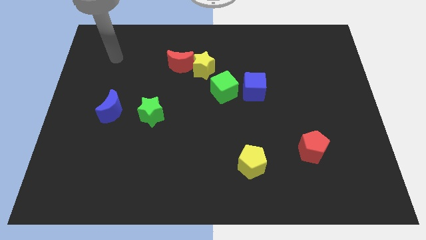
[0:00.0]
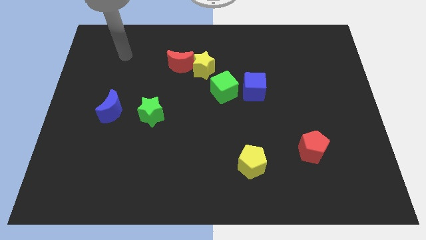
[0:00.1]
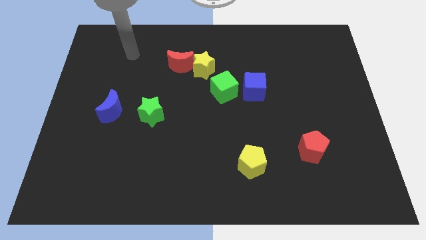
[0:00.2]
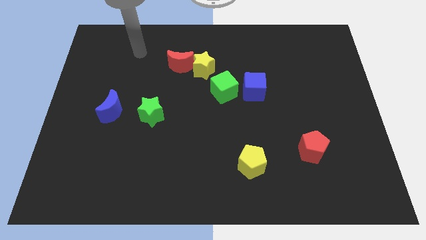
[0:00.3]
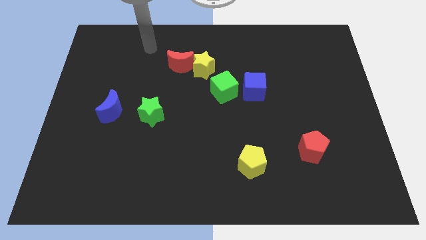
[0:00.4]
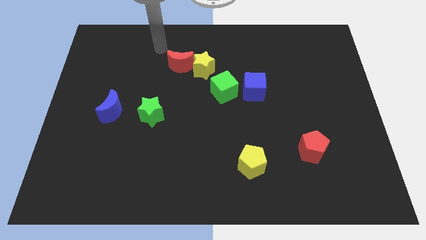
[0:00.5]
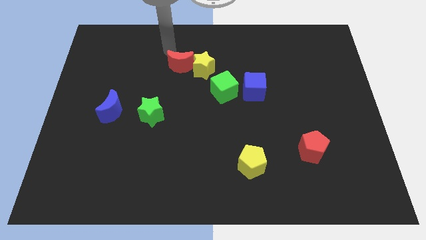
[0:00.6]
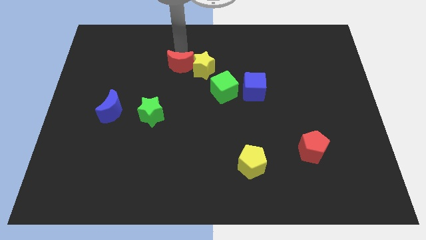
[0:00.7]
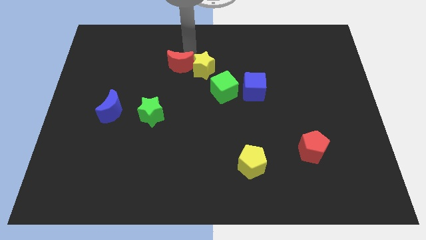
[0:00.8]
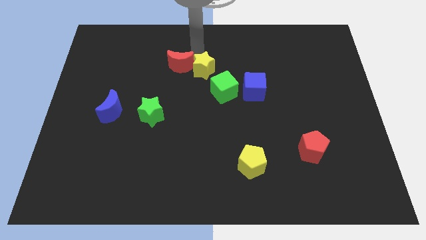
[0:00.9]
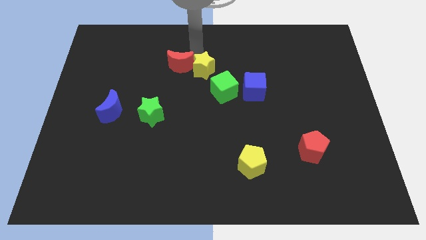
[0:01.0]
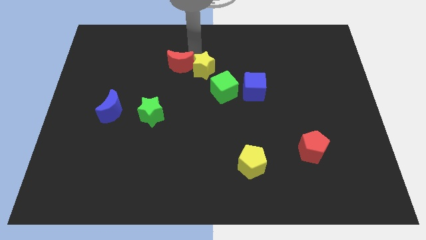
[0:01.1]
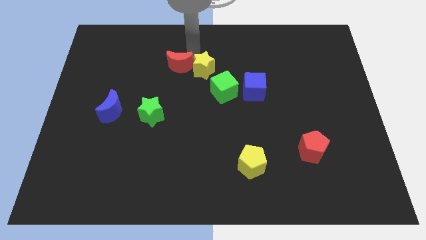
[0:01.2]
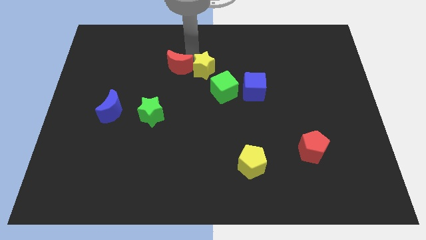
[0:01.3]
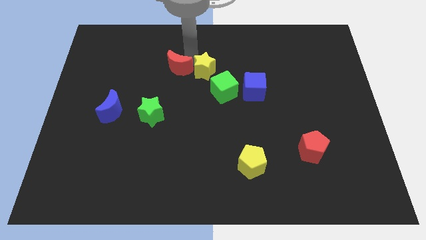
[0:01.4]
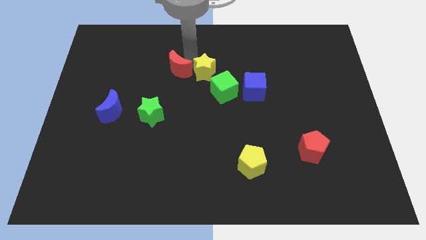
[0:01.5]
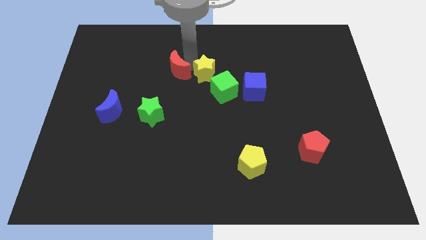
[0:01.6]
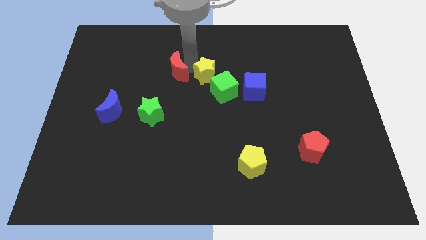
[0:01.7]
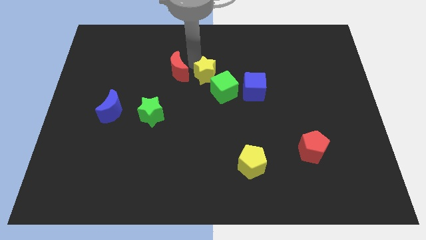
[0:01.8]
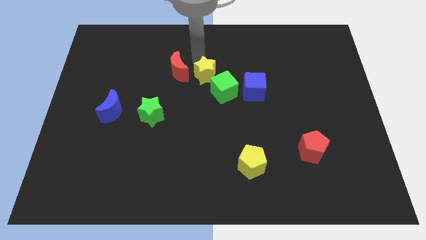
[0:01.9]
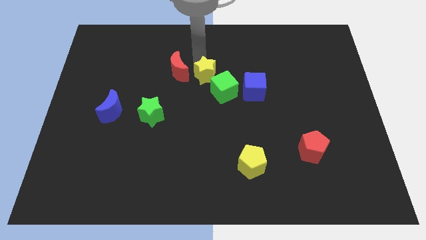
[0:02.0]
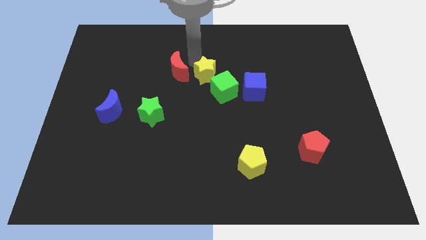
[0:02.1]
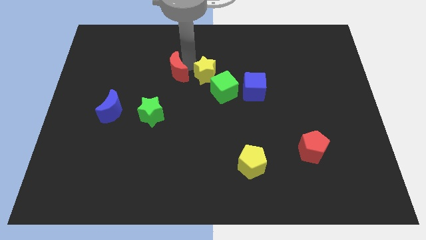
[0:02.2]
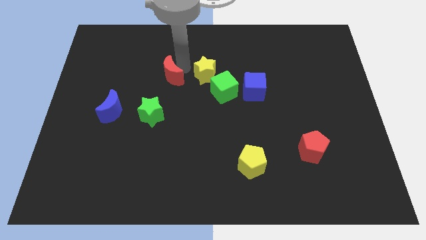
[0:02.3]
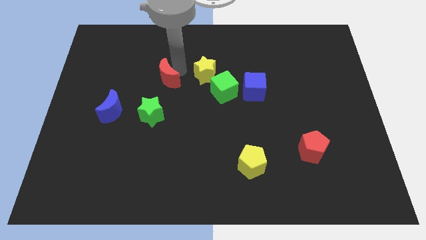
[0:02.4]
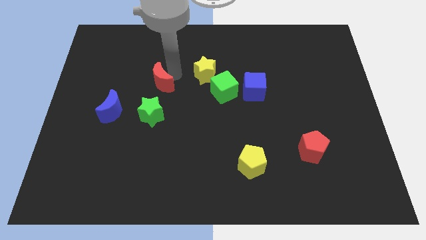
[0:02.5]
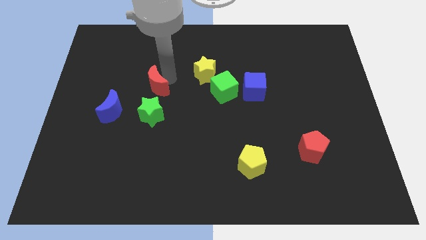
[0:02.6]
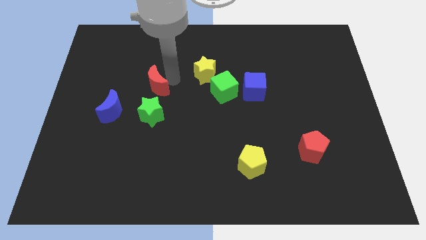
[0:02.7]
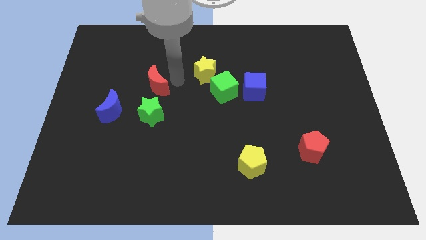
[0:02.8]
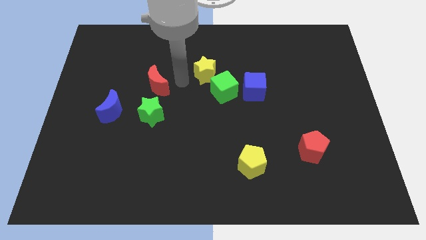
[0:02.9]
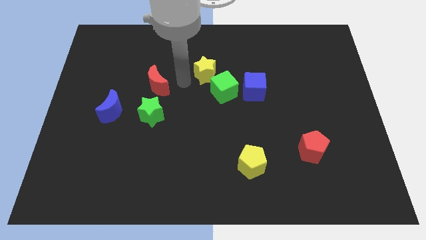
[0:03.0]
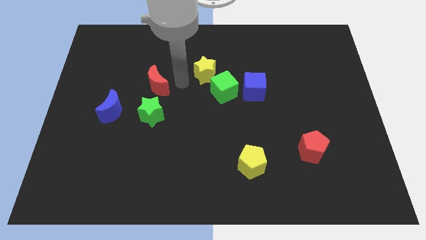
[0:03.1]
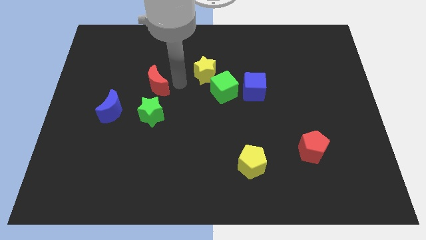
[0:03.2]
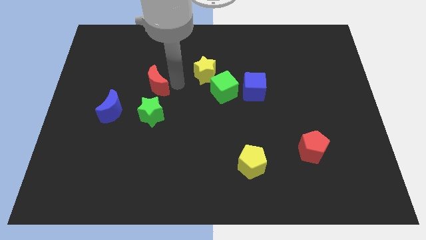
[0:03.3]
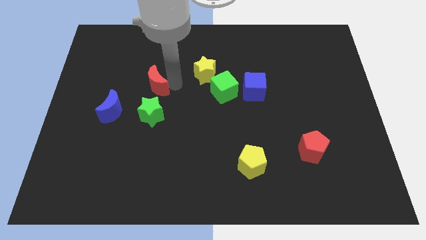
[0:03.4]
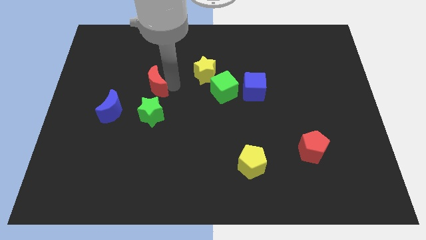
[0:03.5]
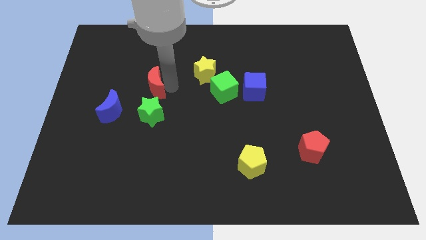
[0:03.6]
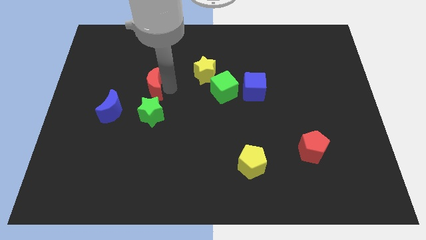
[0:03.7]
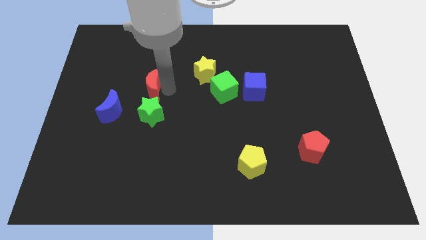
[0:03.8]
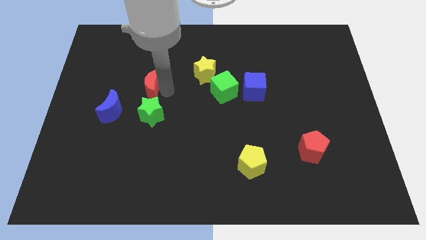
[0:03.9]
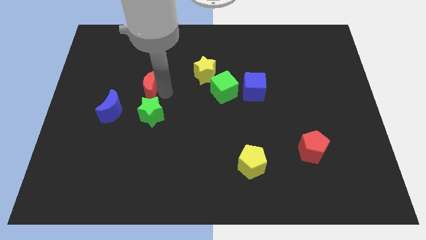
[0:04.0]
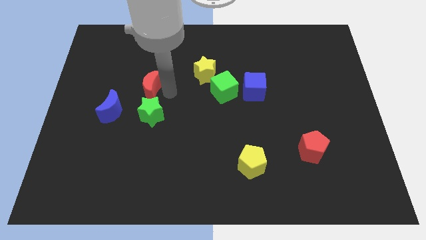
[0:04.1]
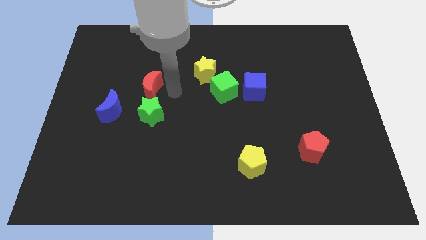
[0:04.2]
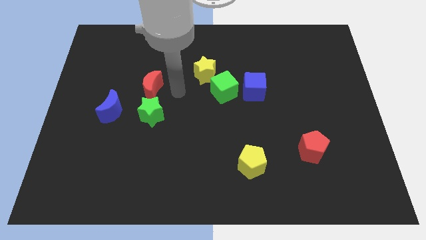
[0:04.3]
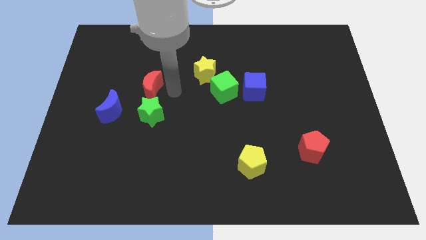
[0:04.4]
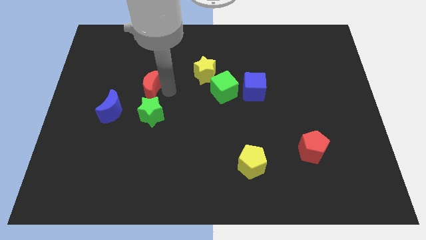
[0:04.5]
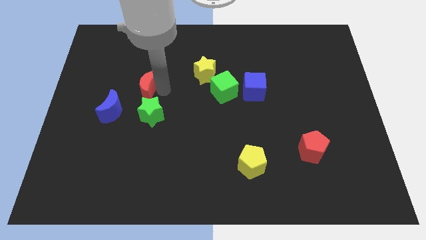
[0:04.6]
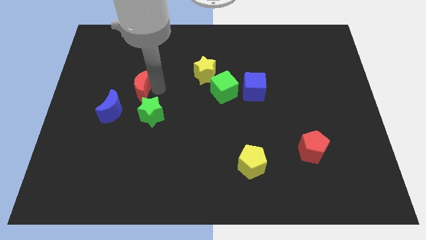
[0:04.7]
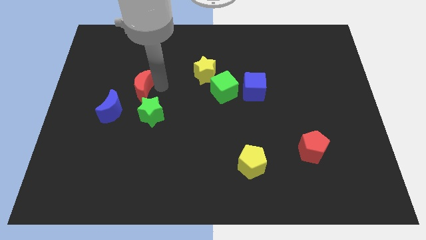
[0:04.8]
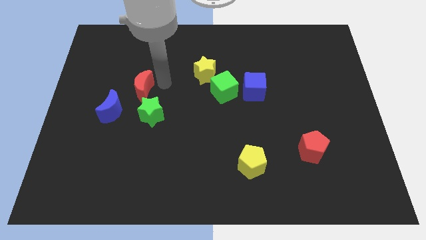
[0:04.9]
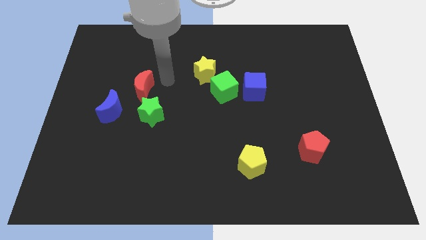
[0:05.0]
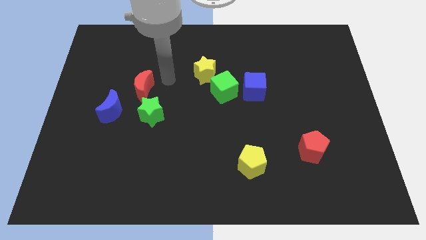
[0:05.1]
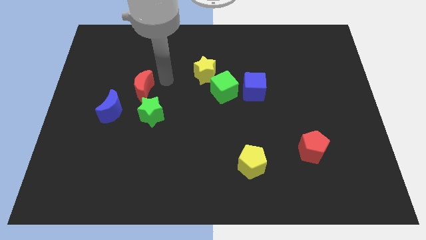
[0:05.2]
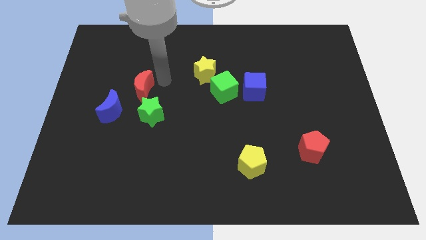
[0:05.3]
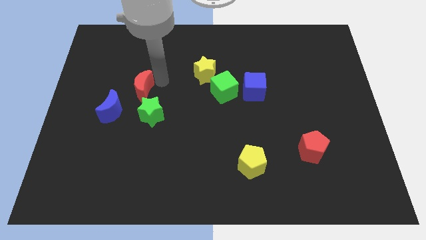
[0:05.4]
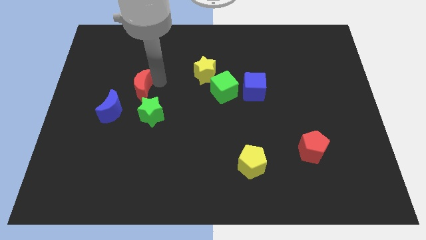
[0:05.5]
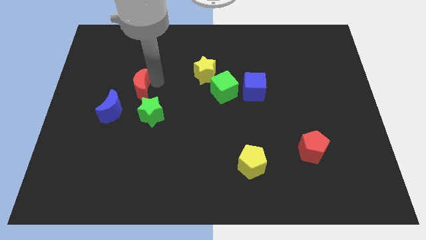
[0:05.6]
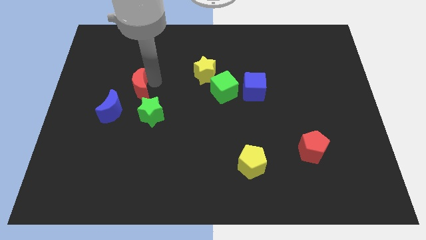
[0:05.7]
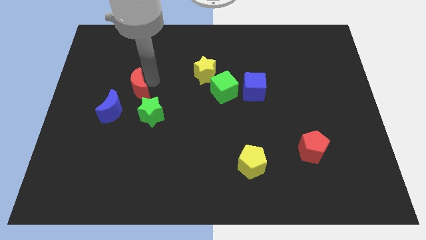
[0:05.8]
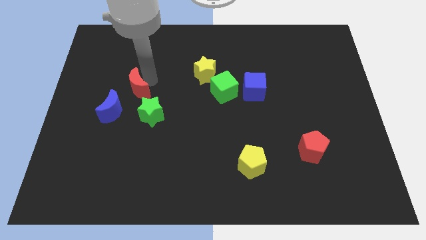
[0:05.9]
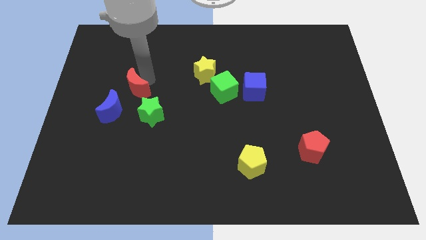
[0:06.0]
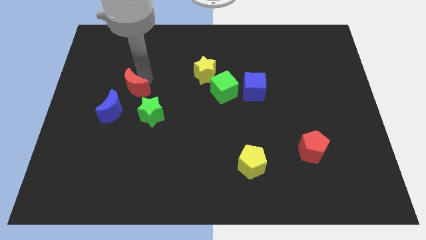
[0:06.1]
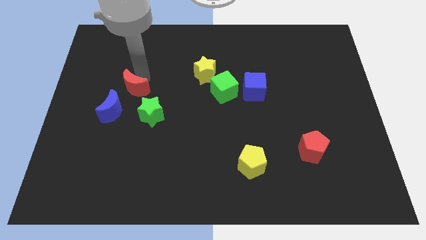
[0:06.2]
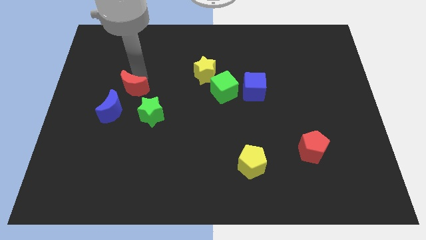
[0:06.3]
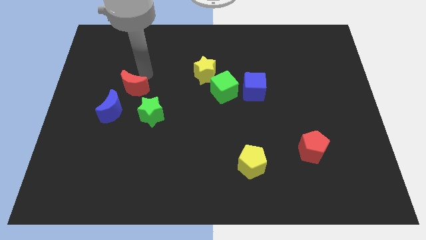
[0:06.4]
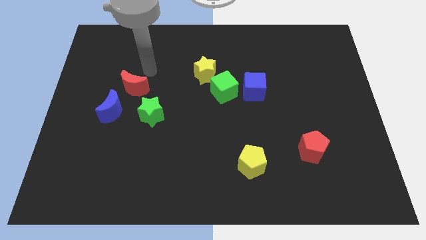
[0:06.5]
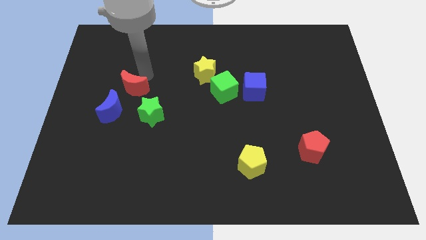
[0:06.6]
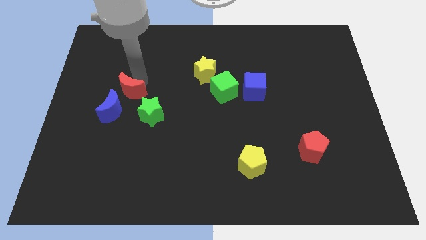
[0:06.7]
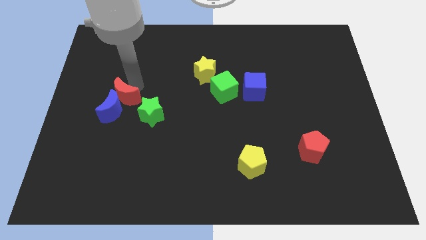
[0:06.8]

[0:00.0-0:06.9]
slide the red moon to the blue moon
